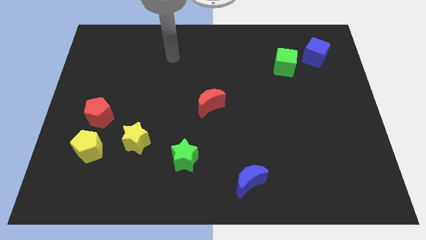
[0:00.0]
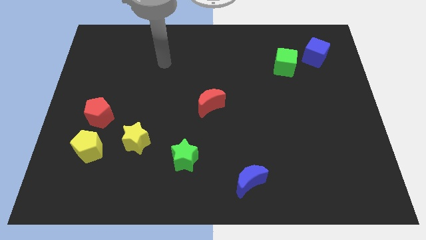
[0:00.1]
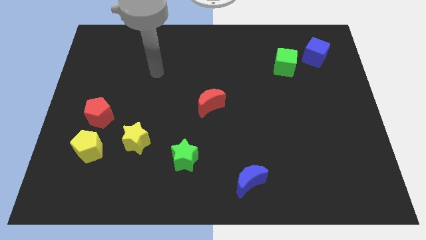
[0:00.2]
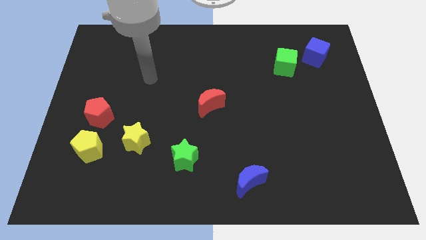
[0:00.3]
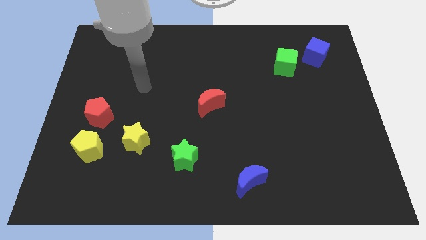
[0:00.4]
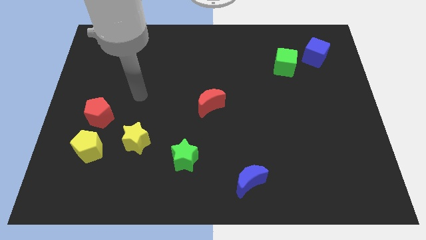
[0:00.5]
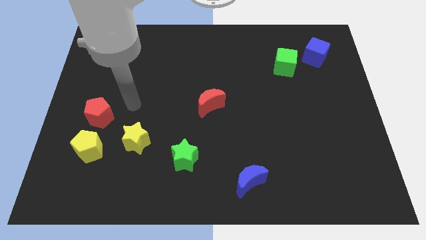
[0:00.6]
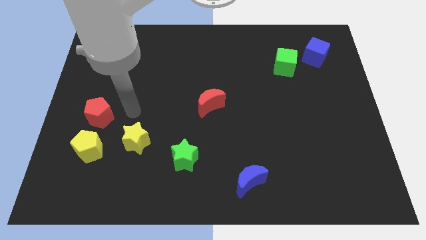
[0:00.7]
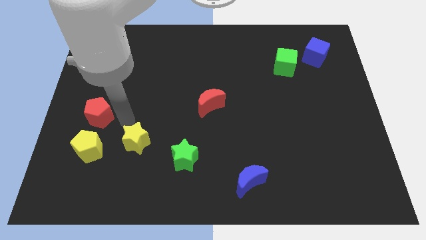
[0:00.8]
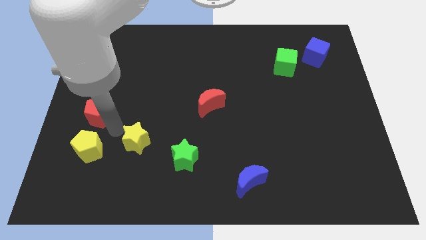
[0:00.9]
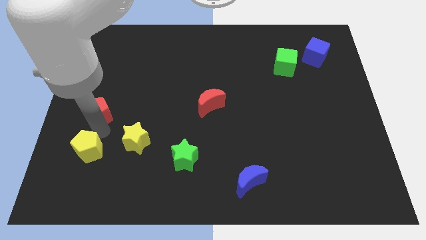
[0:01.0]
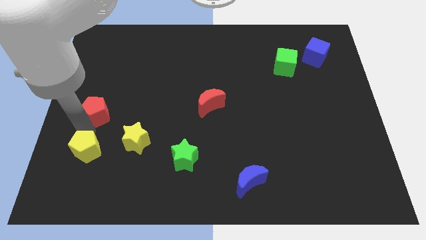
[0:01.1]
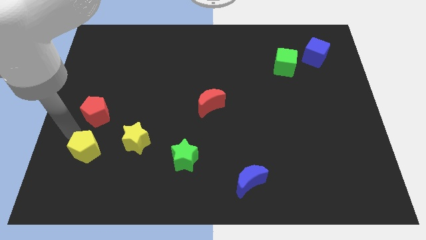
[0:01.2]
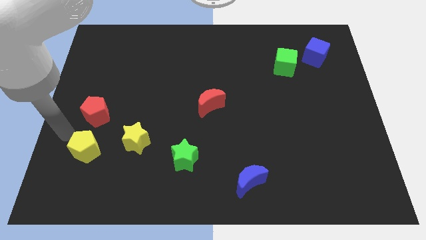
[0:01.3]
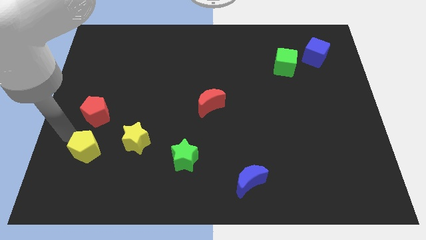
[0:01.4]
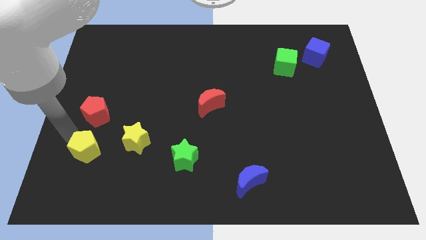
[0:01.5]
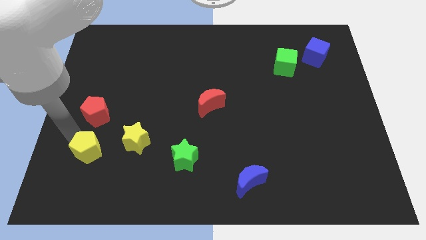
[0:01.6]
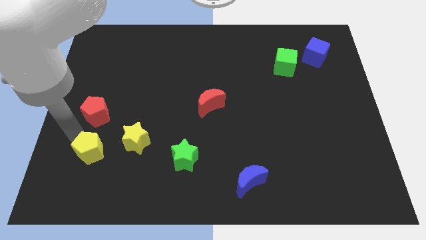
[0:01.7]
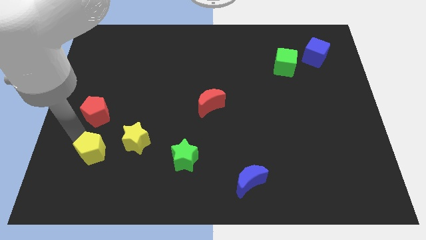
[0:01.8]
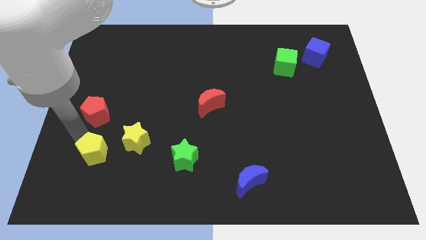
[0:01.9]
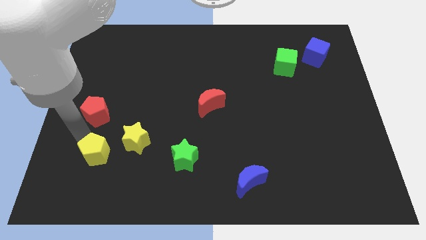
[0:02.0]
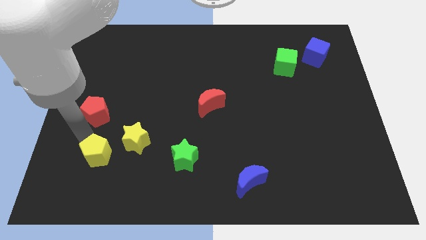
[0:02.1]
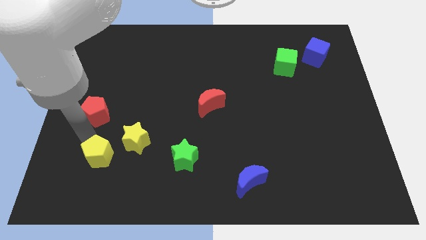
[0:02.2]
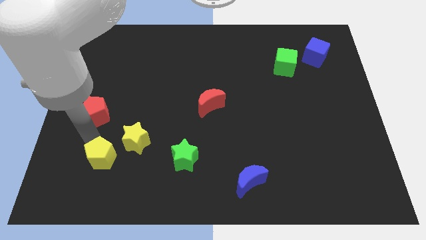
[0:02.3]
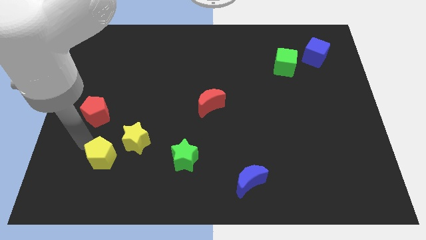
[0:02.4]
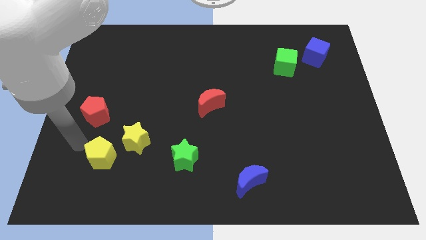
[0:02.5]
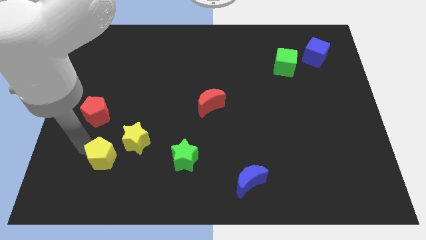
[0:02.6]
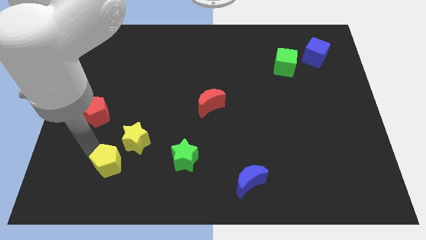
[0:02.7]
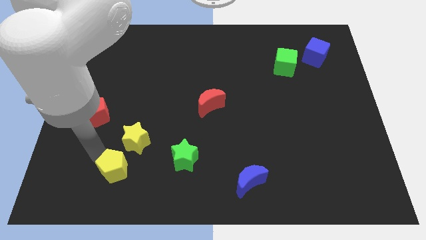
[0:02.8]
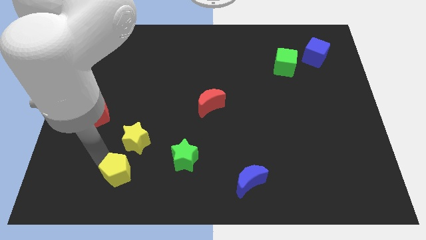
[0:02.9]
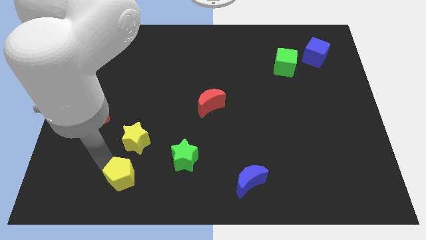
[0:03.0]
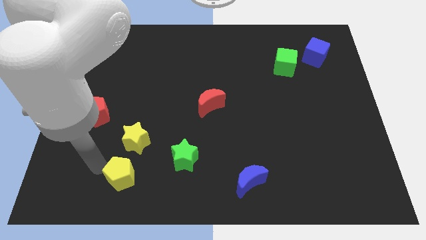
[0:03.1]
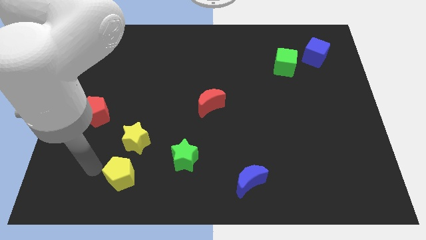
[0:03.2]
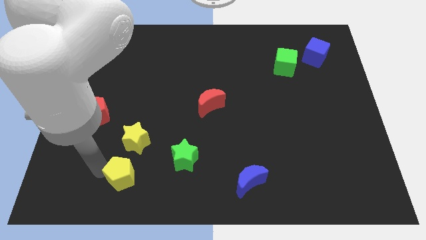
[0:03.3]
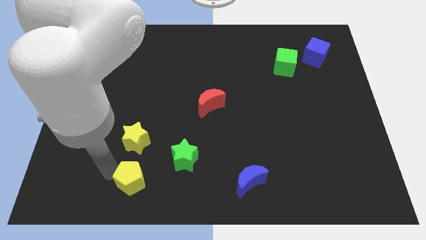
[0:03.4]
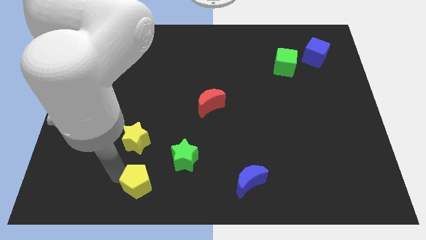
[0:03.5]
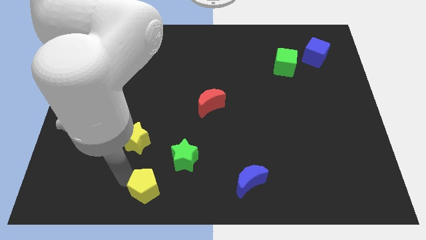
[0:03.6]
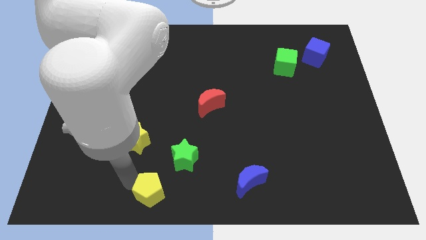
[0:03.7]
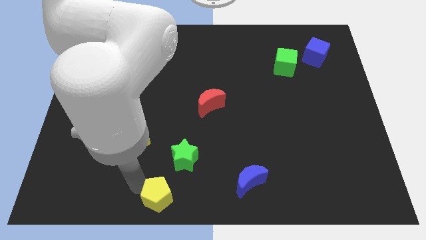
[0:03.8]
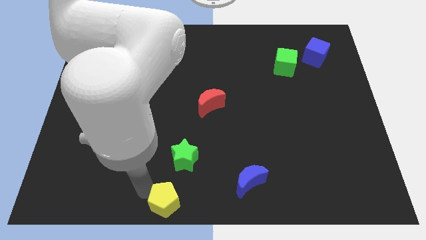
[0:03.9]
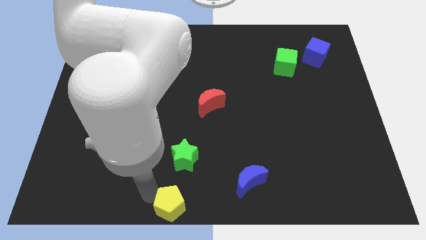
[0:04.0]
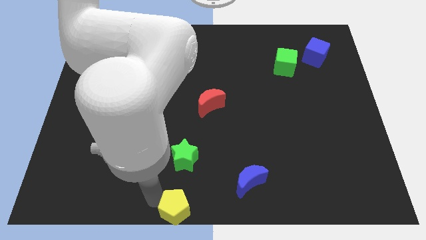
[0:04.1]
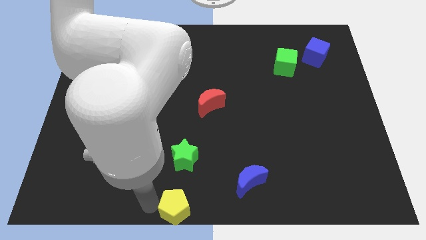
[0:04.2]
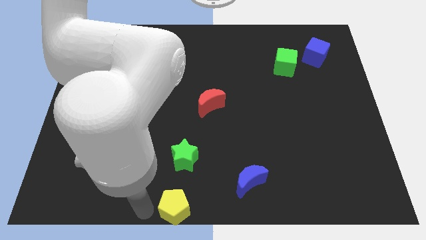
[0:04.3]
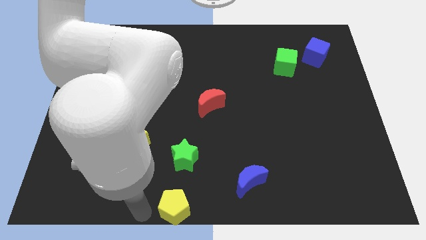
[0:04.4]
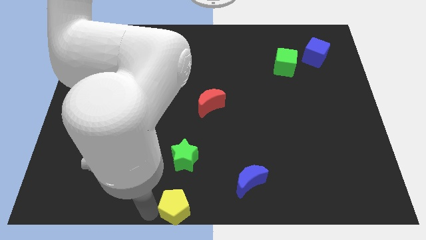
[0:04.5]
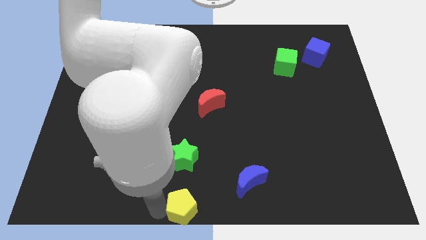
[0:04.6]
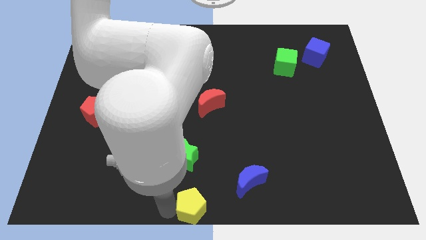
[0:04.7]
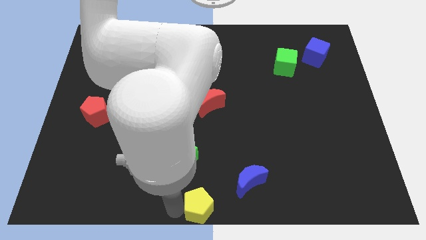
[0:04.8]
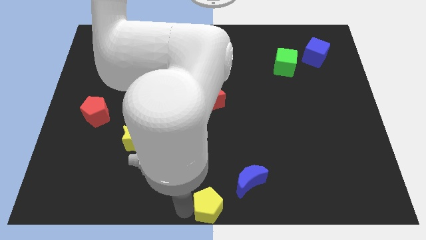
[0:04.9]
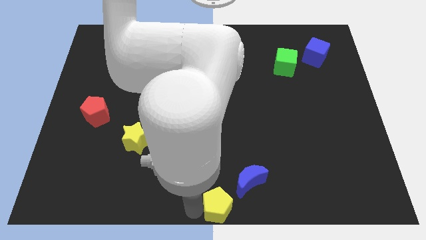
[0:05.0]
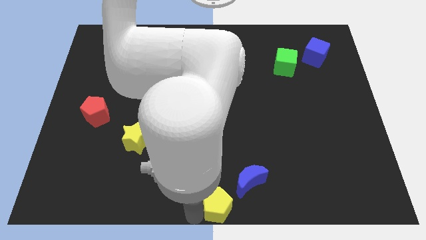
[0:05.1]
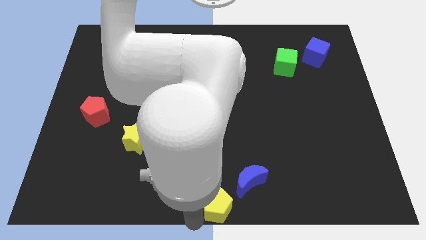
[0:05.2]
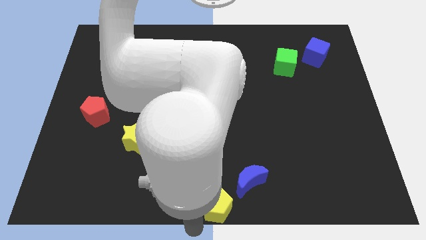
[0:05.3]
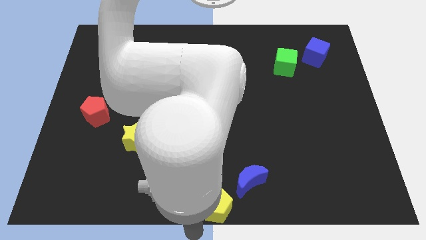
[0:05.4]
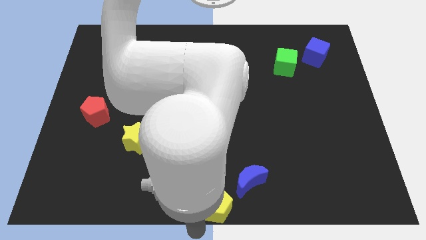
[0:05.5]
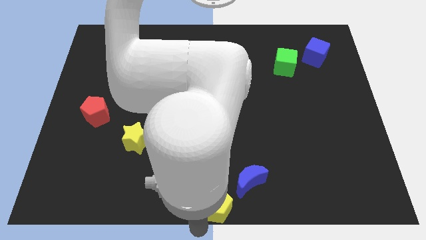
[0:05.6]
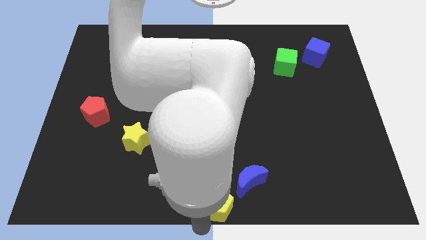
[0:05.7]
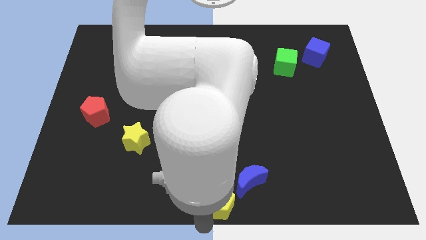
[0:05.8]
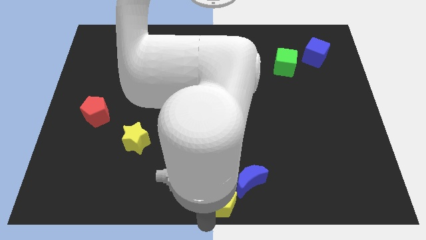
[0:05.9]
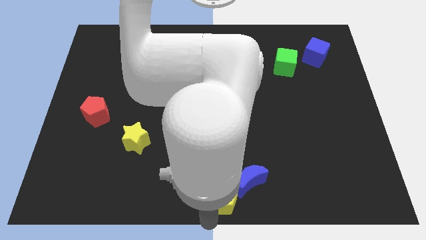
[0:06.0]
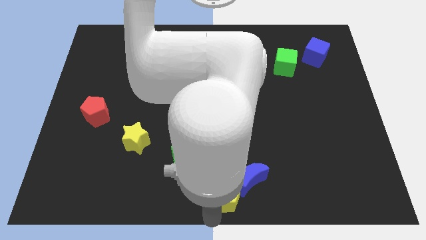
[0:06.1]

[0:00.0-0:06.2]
slide the yellow pentagon towards the blue moon

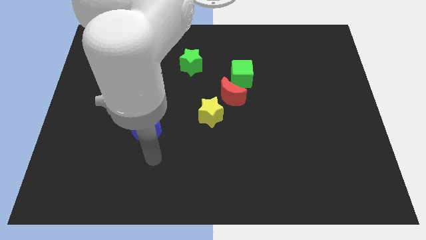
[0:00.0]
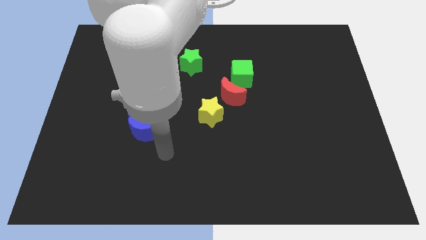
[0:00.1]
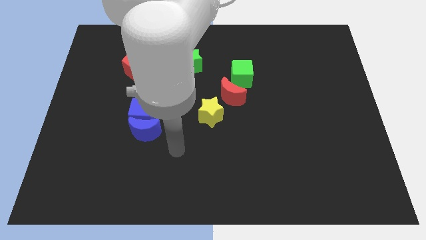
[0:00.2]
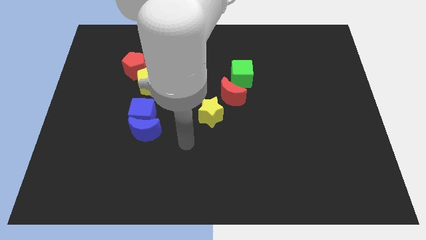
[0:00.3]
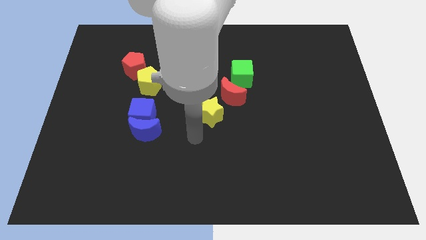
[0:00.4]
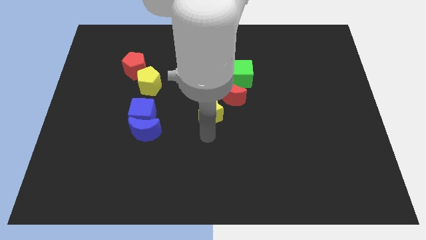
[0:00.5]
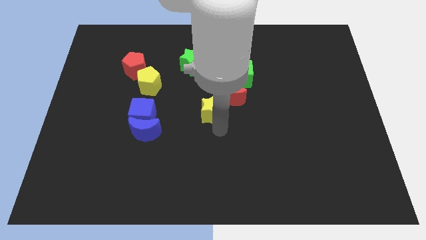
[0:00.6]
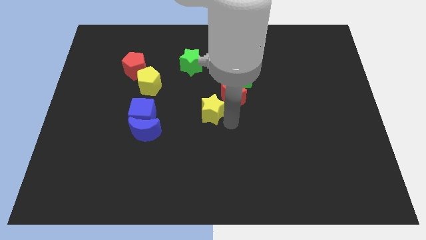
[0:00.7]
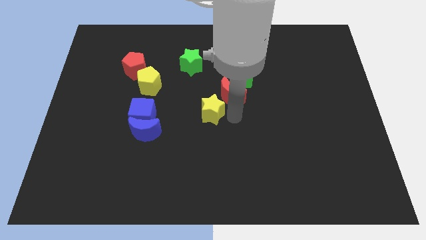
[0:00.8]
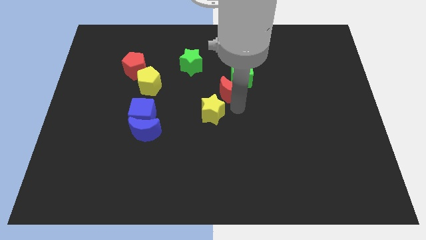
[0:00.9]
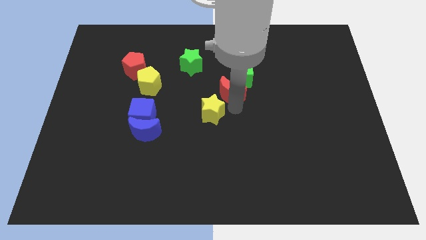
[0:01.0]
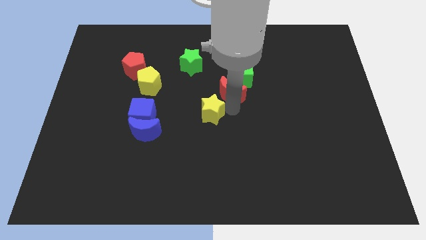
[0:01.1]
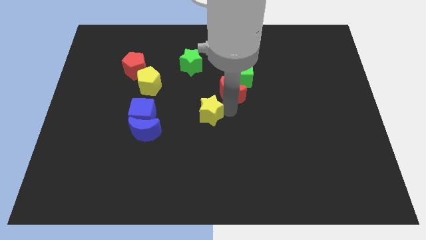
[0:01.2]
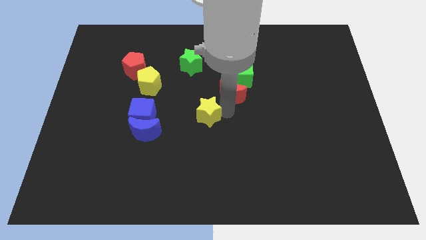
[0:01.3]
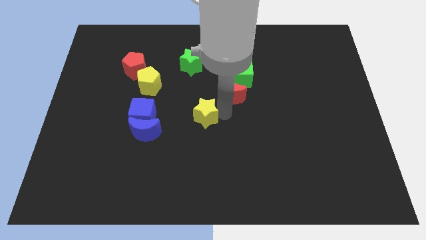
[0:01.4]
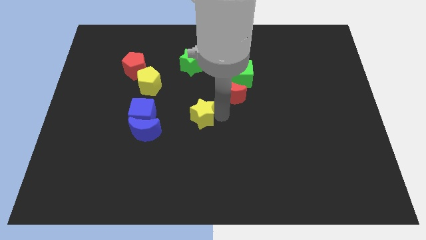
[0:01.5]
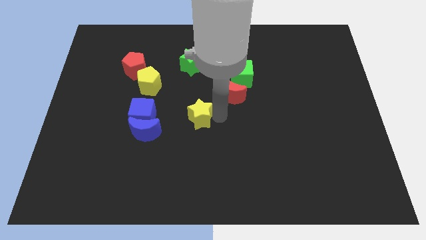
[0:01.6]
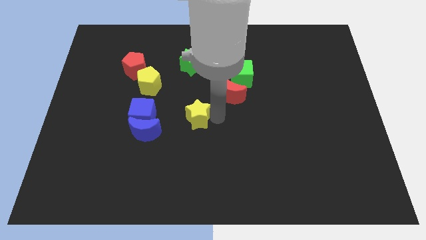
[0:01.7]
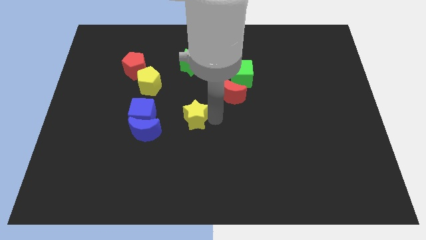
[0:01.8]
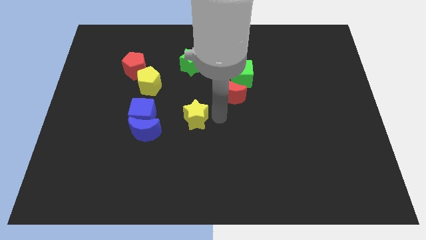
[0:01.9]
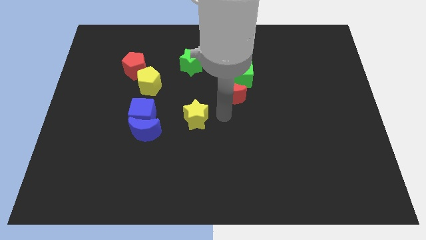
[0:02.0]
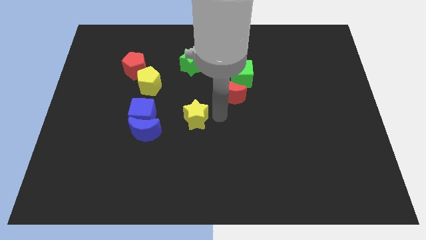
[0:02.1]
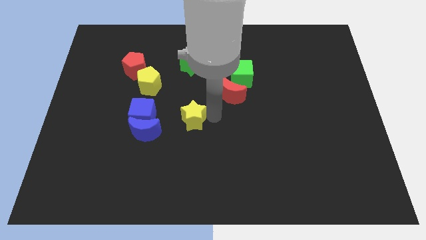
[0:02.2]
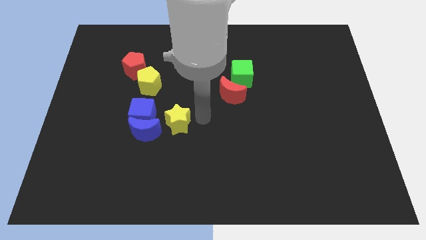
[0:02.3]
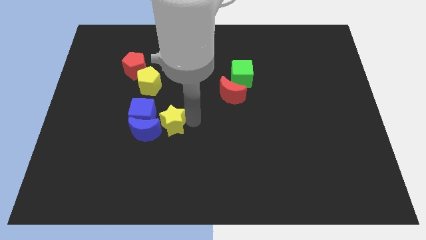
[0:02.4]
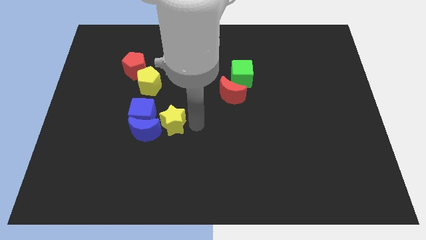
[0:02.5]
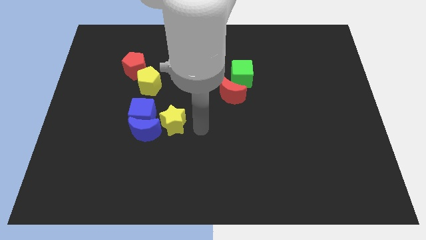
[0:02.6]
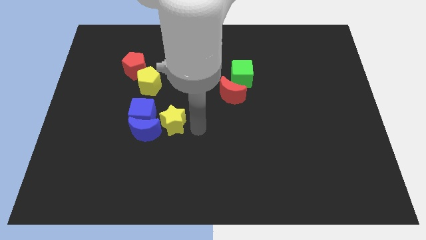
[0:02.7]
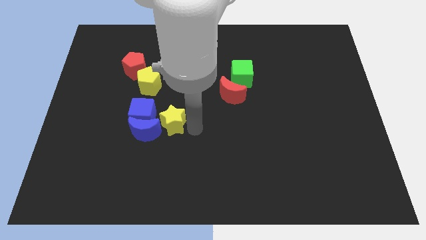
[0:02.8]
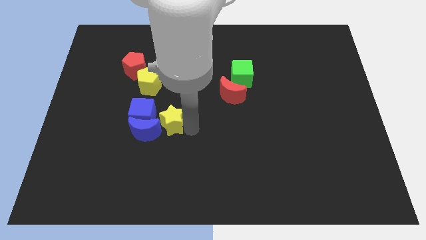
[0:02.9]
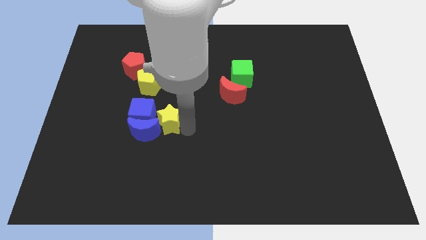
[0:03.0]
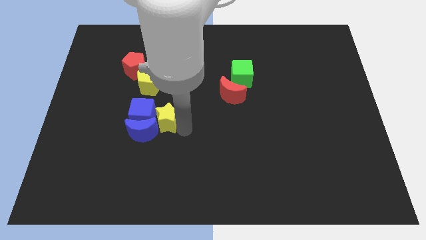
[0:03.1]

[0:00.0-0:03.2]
put the yellow star close to the blue cube
